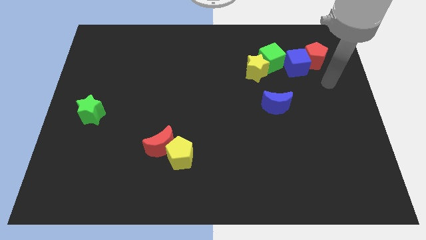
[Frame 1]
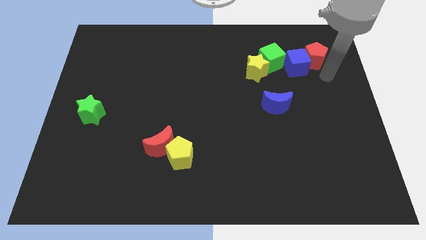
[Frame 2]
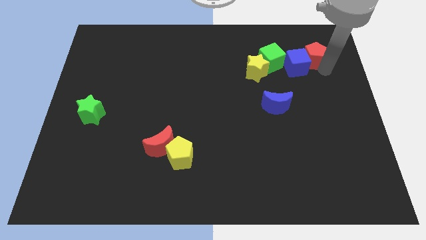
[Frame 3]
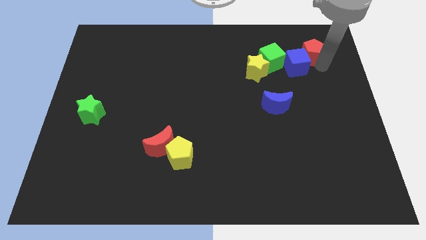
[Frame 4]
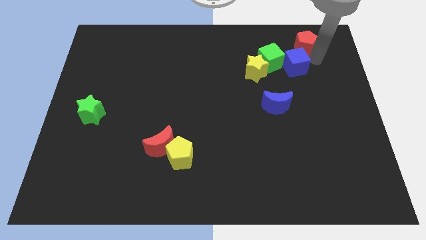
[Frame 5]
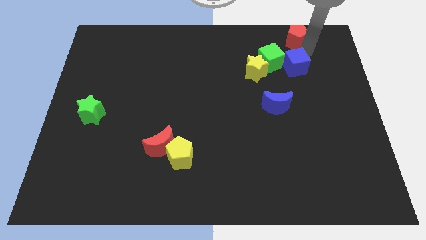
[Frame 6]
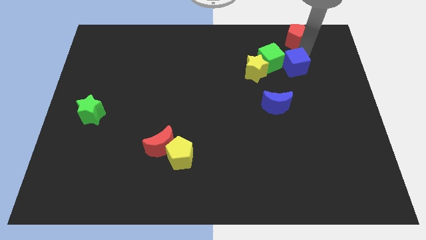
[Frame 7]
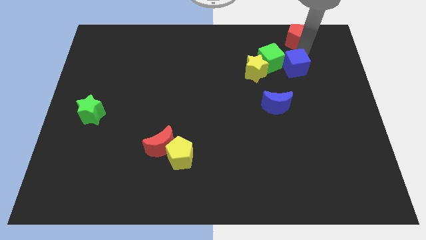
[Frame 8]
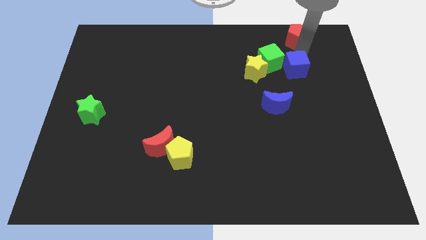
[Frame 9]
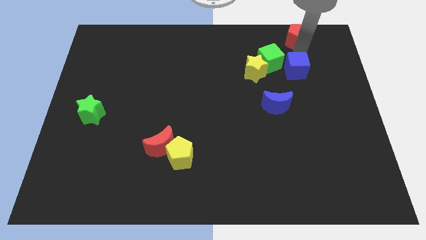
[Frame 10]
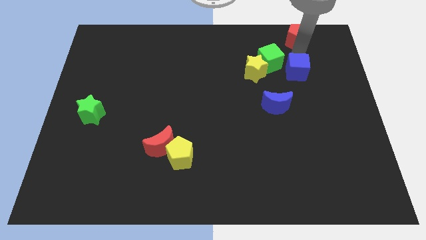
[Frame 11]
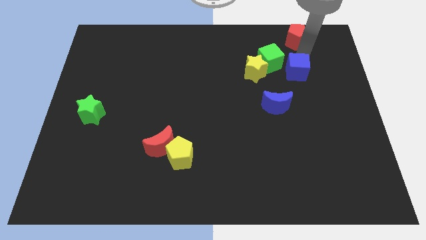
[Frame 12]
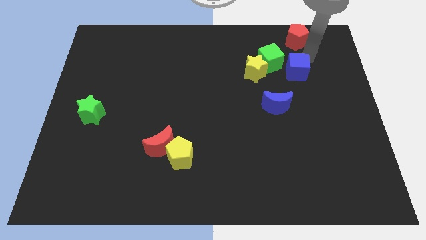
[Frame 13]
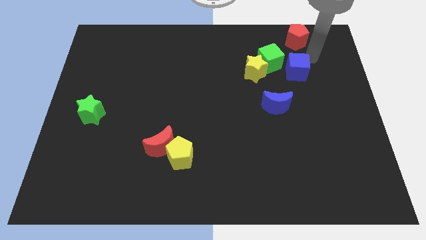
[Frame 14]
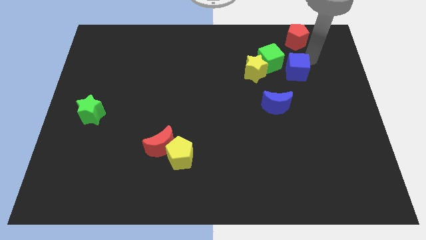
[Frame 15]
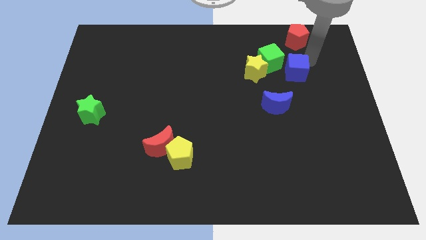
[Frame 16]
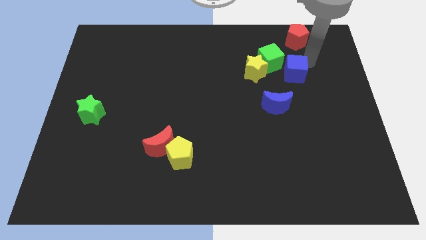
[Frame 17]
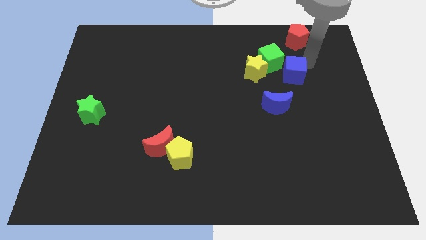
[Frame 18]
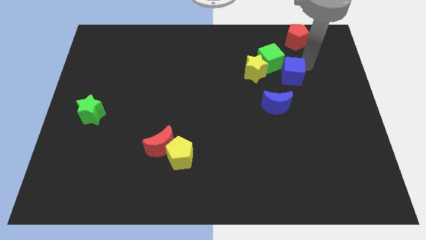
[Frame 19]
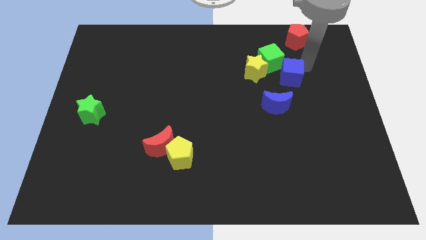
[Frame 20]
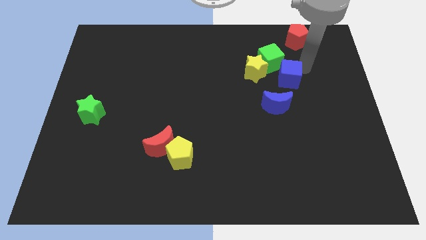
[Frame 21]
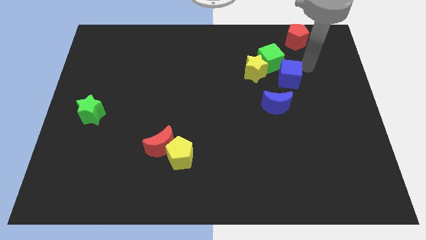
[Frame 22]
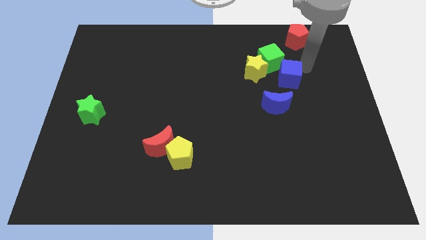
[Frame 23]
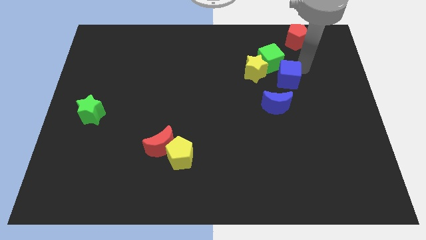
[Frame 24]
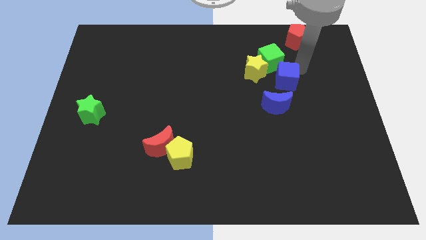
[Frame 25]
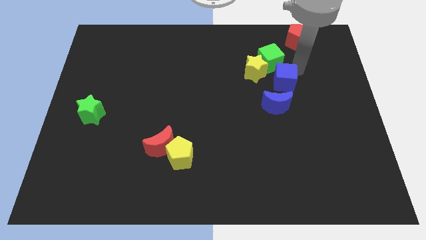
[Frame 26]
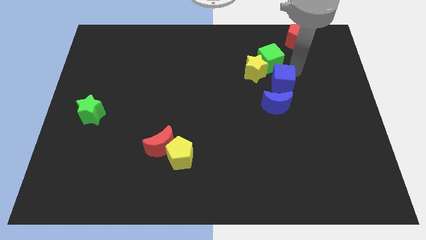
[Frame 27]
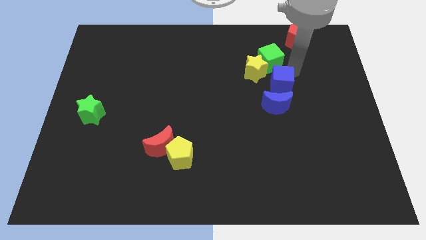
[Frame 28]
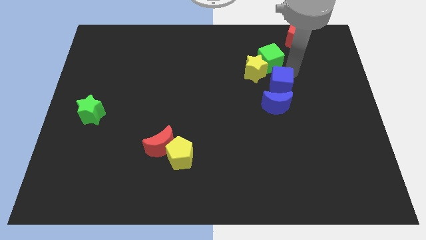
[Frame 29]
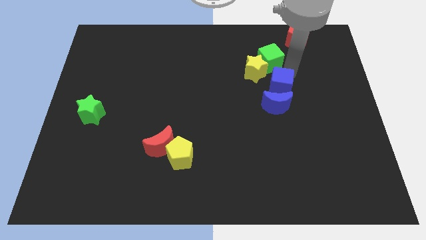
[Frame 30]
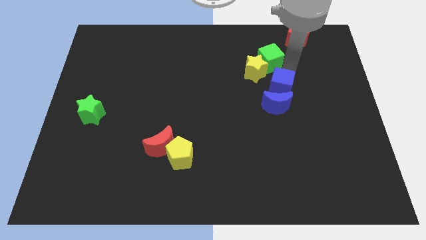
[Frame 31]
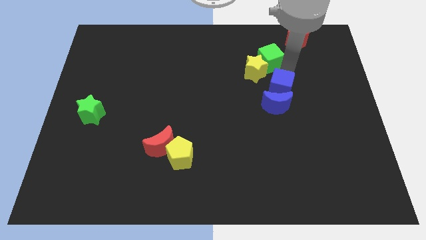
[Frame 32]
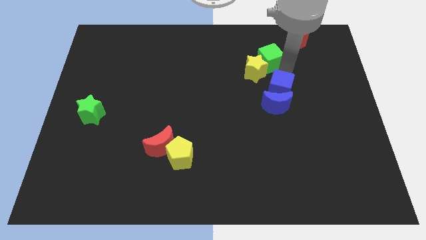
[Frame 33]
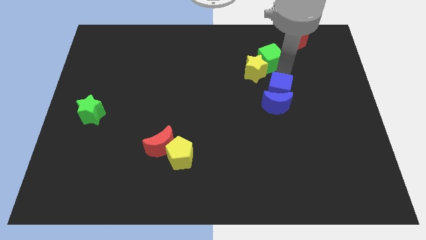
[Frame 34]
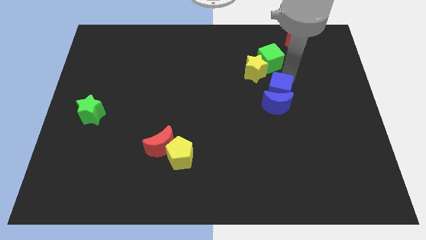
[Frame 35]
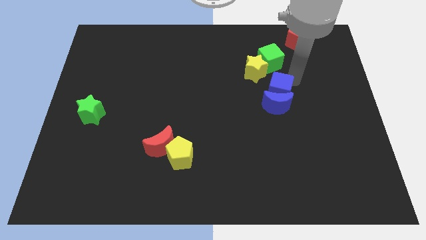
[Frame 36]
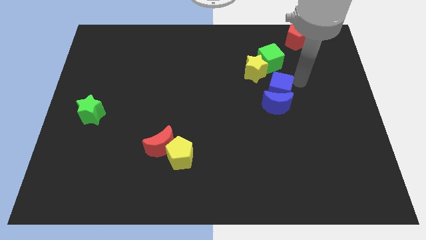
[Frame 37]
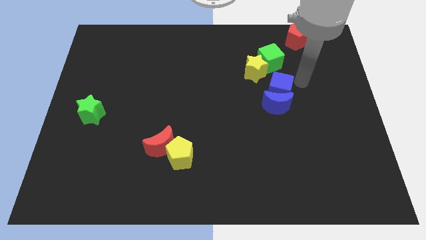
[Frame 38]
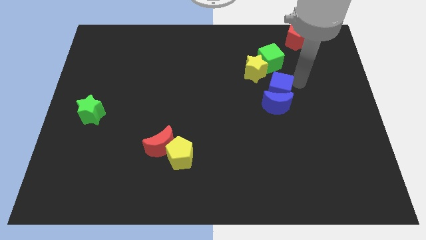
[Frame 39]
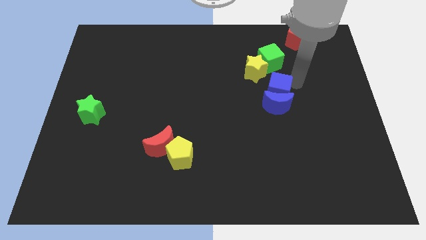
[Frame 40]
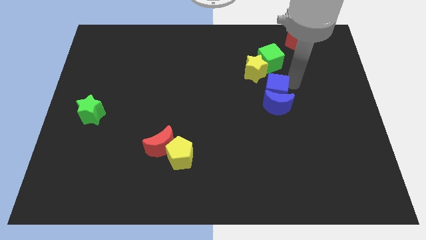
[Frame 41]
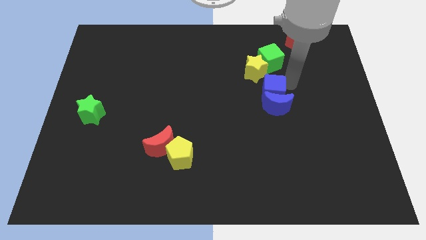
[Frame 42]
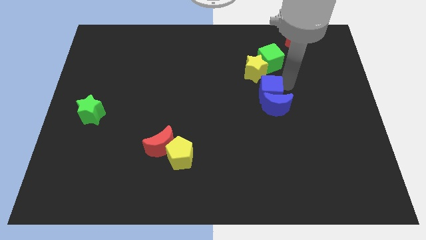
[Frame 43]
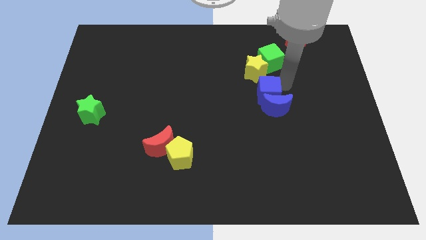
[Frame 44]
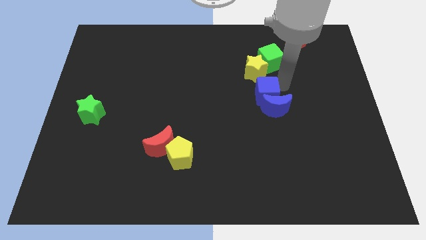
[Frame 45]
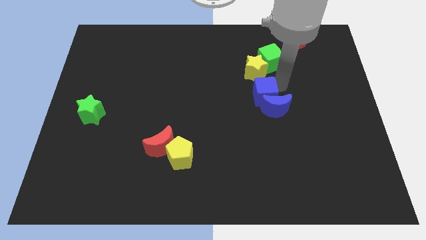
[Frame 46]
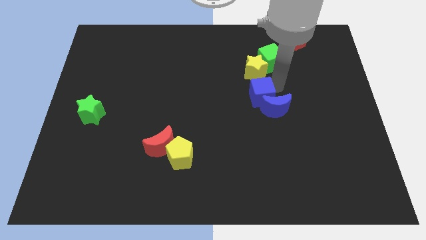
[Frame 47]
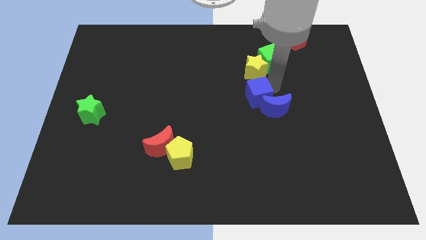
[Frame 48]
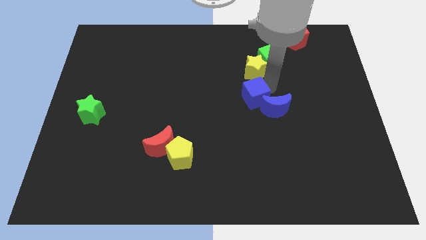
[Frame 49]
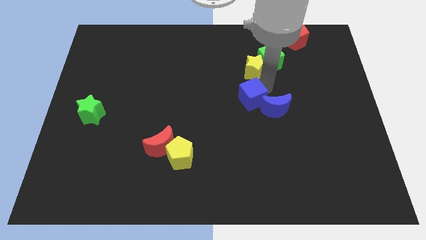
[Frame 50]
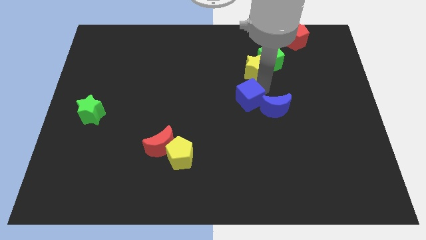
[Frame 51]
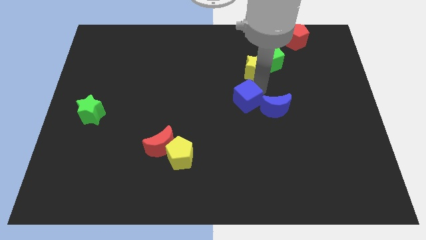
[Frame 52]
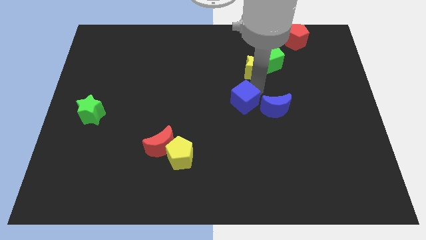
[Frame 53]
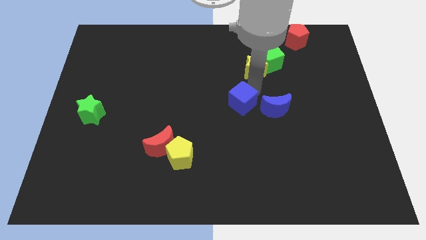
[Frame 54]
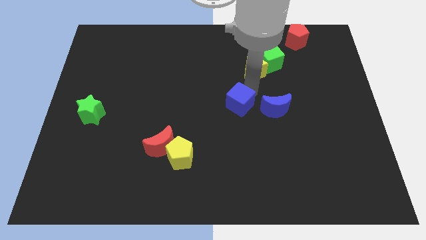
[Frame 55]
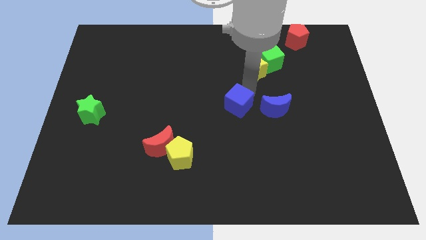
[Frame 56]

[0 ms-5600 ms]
push the blue cube down and to the left diagonally

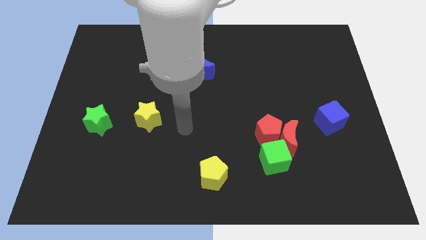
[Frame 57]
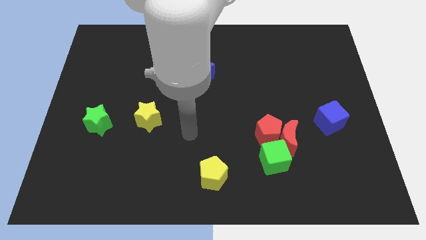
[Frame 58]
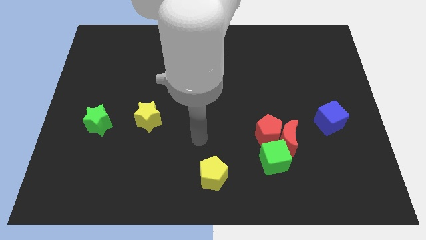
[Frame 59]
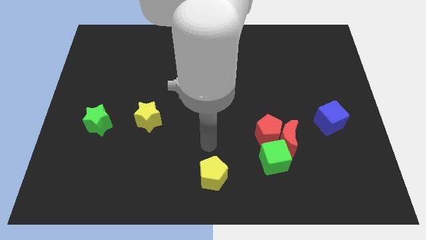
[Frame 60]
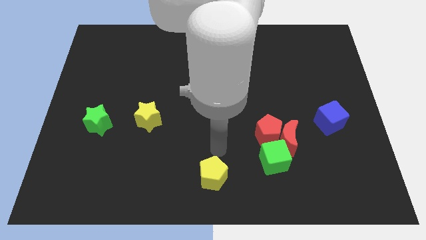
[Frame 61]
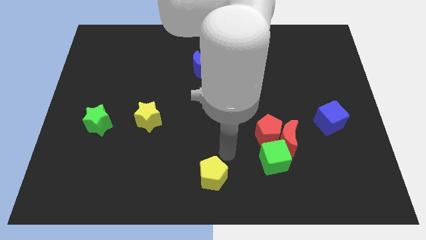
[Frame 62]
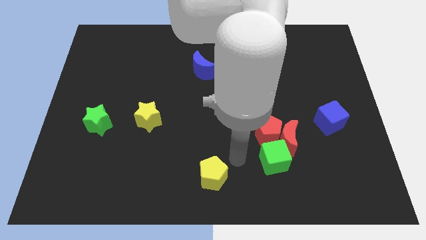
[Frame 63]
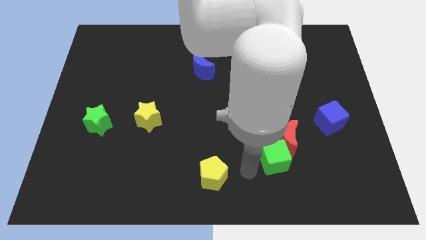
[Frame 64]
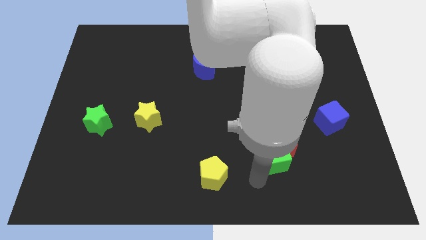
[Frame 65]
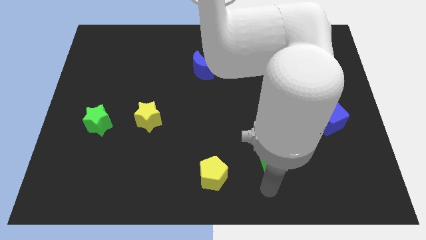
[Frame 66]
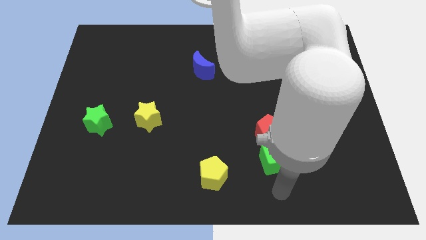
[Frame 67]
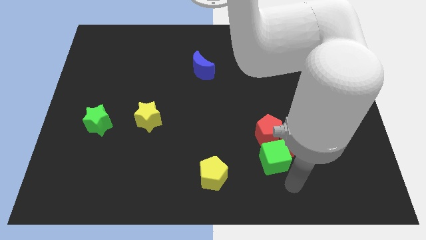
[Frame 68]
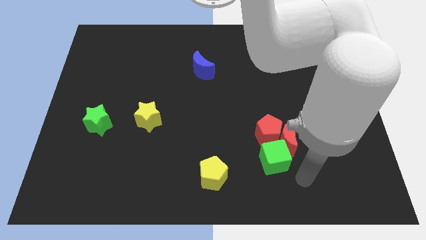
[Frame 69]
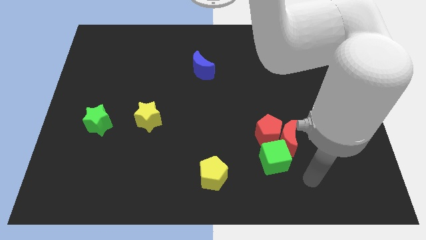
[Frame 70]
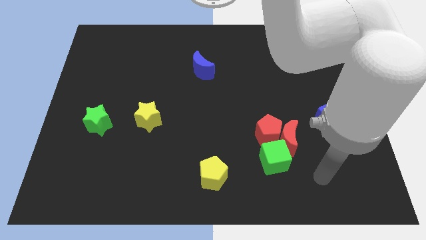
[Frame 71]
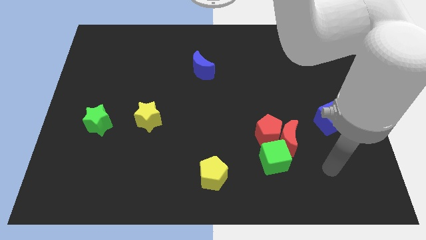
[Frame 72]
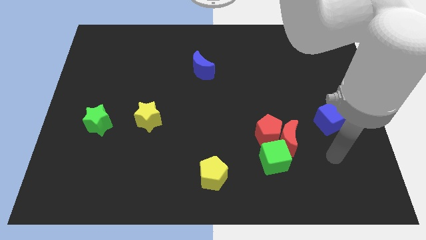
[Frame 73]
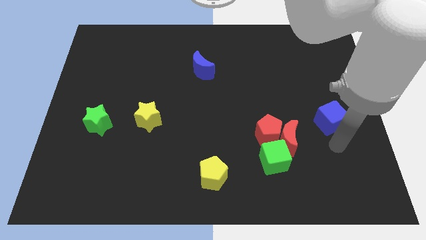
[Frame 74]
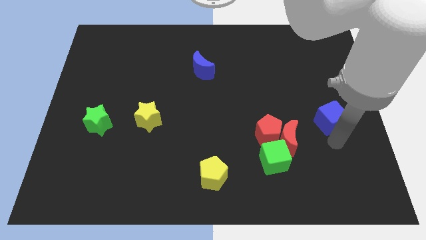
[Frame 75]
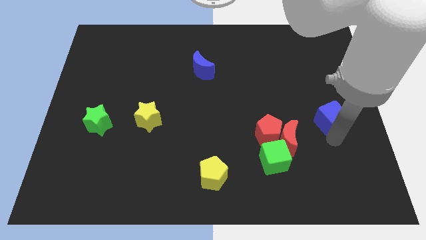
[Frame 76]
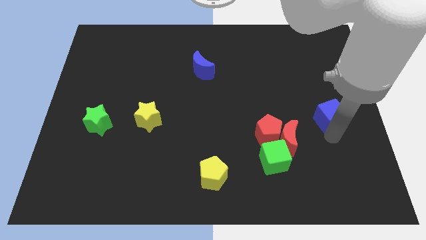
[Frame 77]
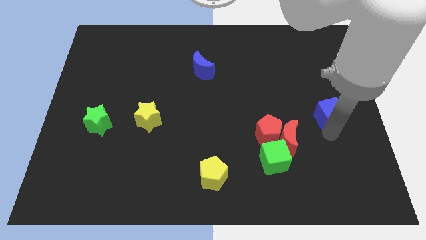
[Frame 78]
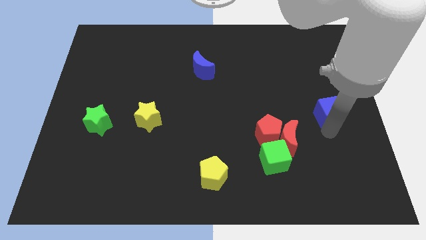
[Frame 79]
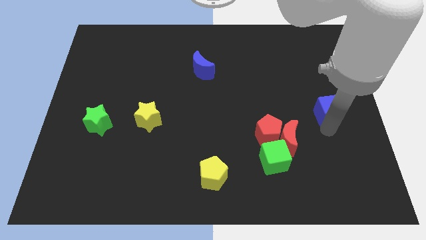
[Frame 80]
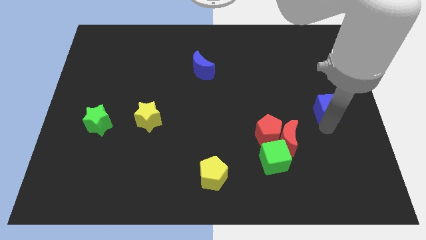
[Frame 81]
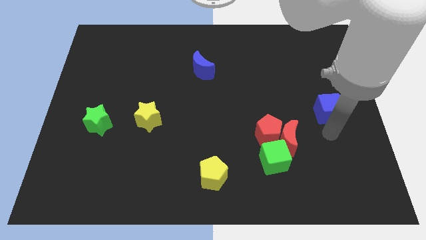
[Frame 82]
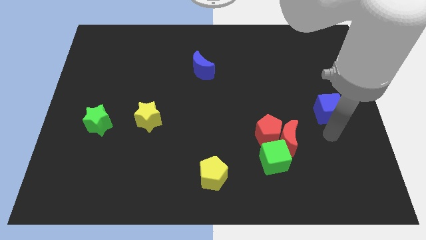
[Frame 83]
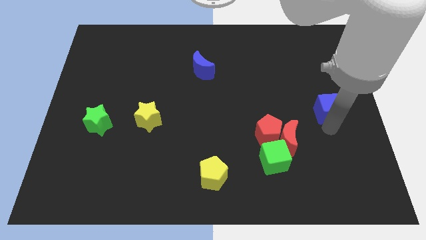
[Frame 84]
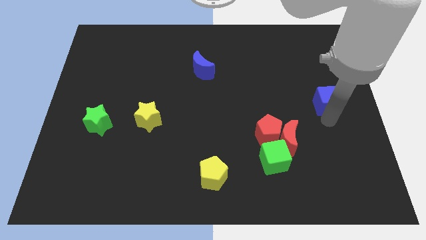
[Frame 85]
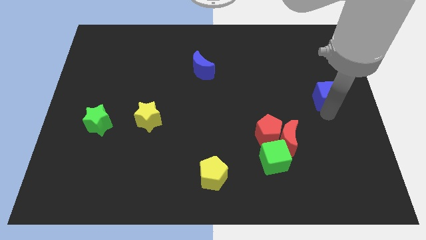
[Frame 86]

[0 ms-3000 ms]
move the blue cube somewhat upwards
